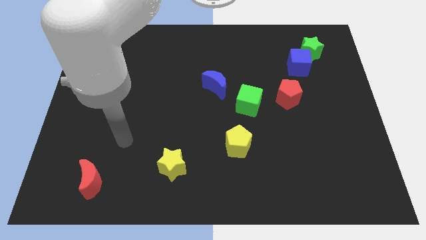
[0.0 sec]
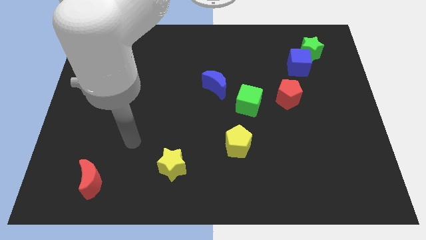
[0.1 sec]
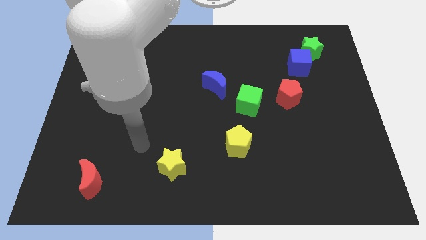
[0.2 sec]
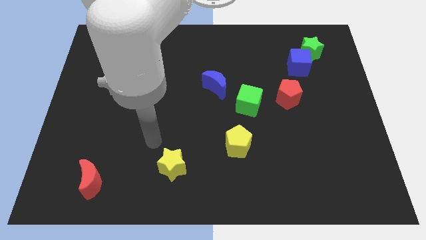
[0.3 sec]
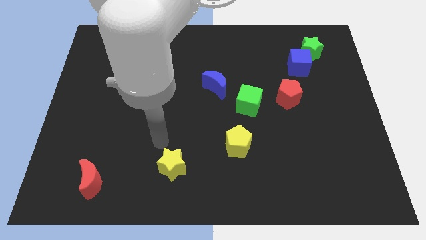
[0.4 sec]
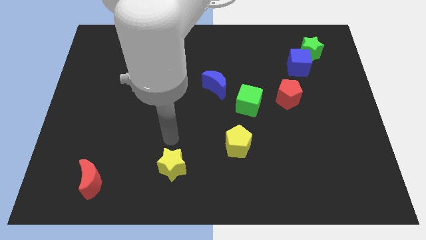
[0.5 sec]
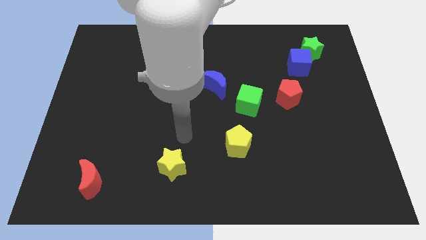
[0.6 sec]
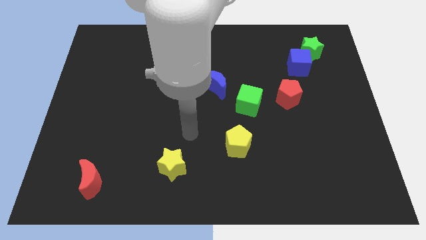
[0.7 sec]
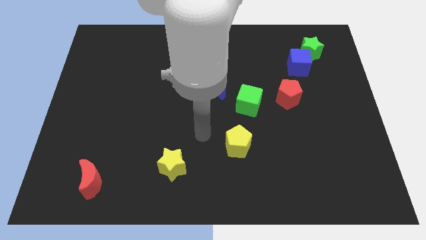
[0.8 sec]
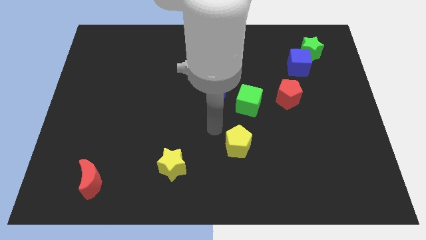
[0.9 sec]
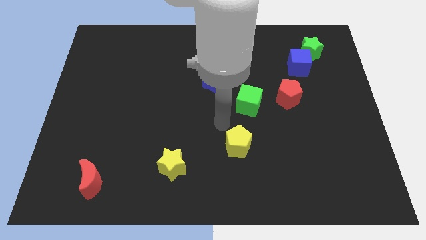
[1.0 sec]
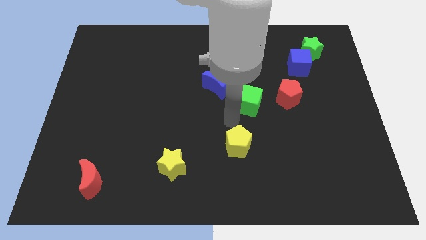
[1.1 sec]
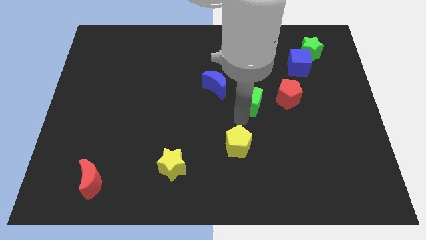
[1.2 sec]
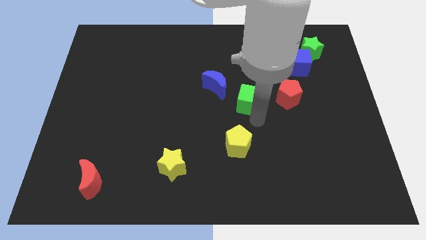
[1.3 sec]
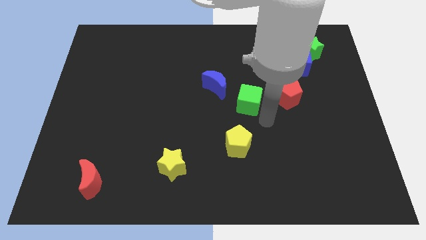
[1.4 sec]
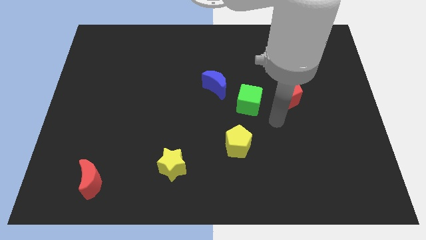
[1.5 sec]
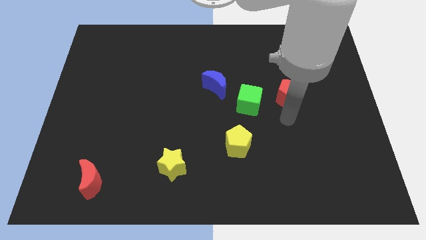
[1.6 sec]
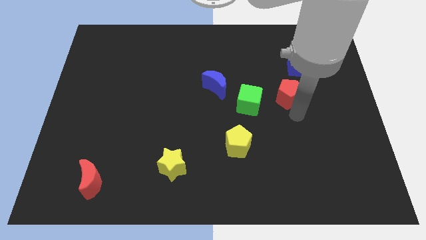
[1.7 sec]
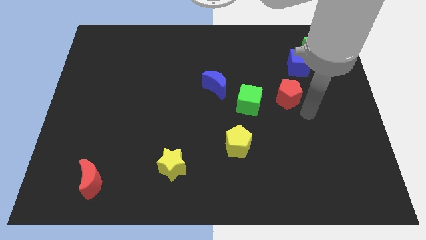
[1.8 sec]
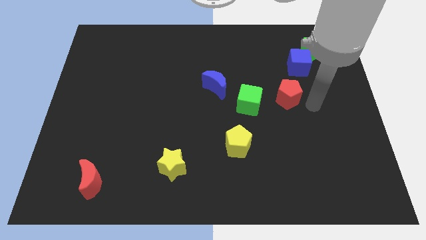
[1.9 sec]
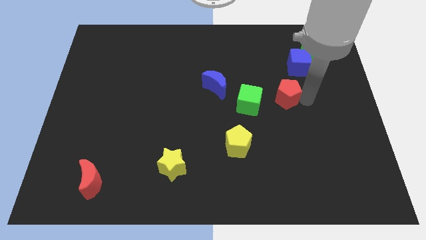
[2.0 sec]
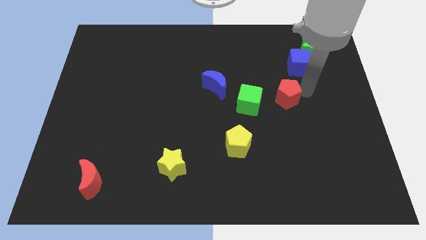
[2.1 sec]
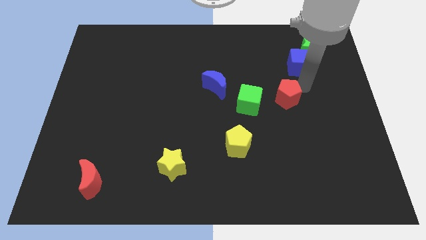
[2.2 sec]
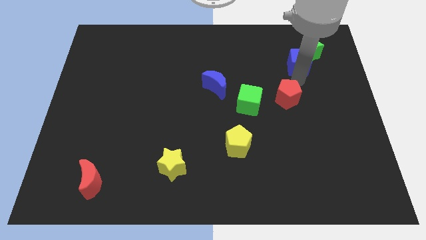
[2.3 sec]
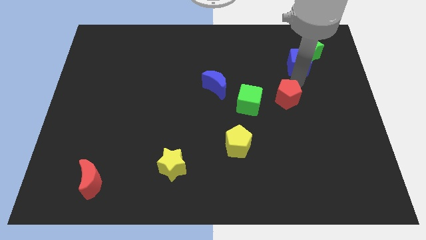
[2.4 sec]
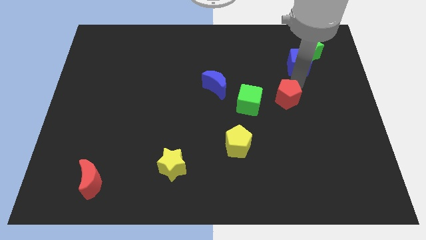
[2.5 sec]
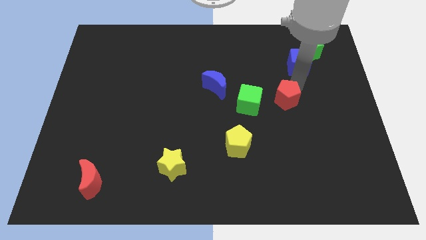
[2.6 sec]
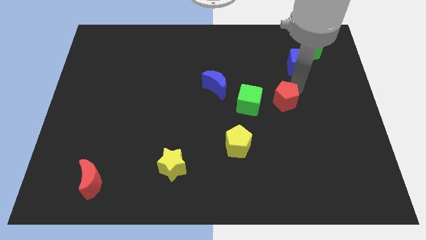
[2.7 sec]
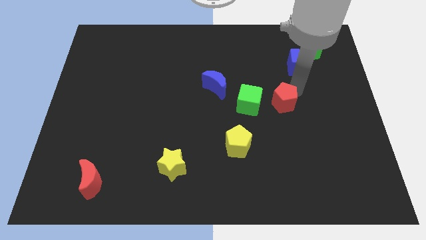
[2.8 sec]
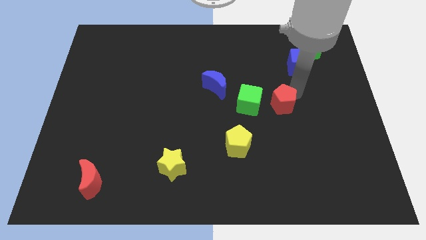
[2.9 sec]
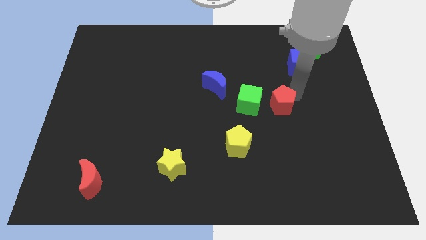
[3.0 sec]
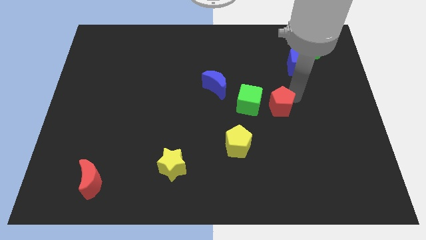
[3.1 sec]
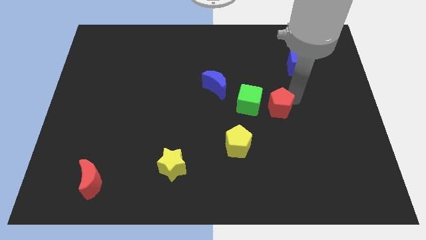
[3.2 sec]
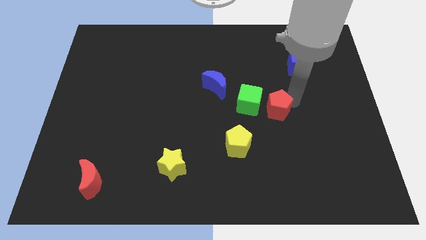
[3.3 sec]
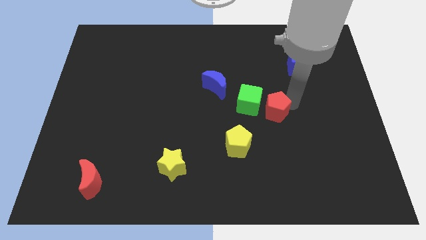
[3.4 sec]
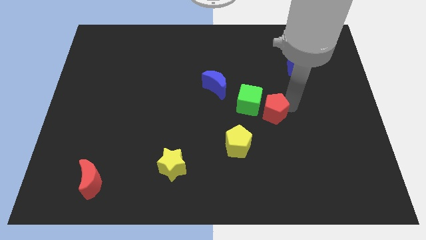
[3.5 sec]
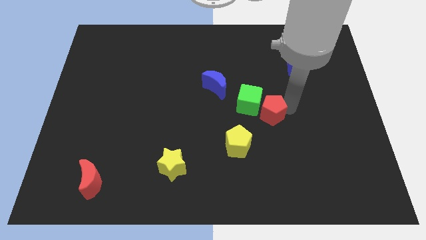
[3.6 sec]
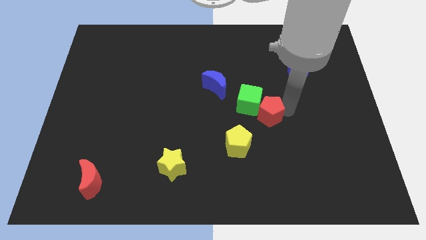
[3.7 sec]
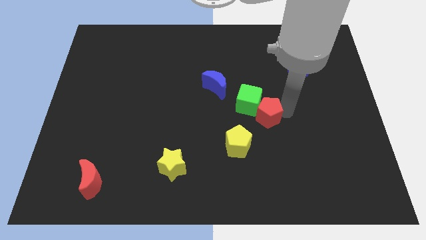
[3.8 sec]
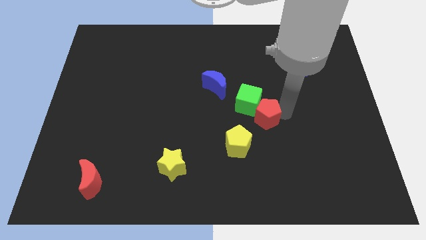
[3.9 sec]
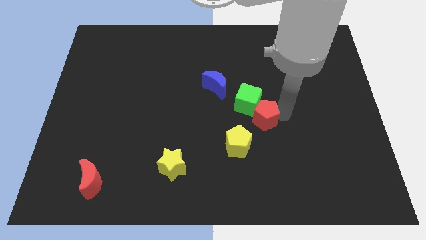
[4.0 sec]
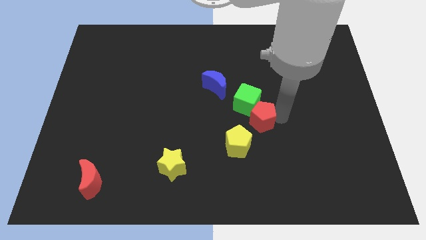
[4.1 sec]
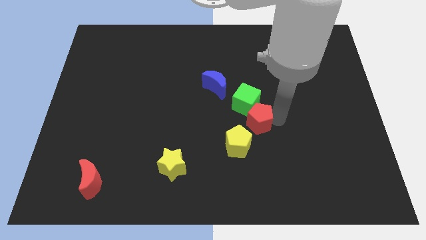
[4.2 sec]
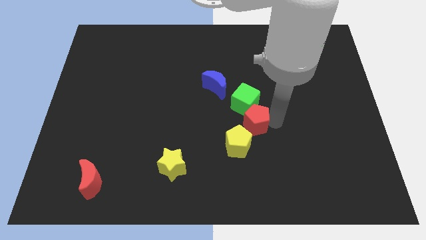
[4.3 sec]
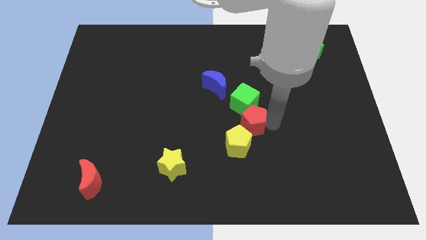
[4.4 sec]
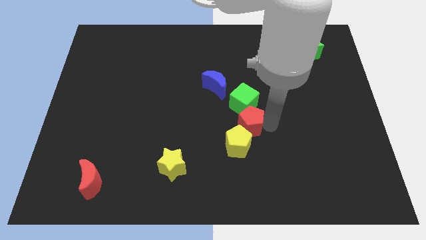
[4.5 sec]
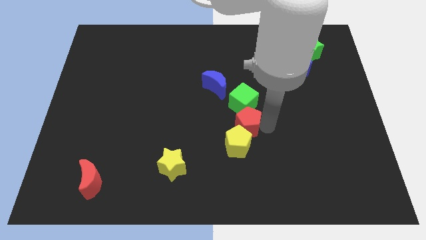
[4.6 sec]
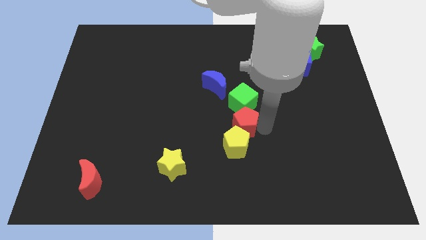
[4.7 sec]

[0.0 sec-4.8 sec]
slide the red pentagon diagonally down and to the left of the green cube

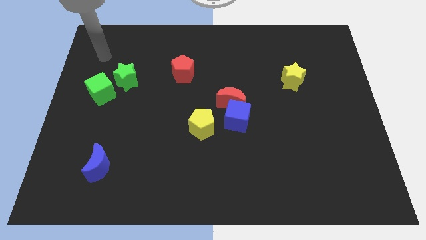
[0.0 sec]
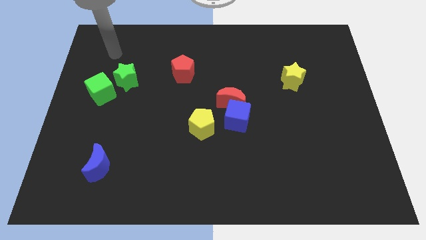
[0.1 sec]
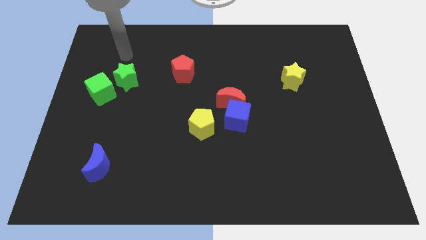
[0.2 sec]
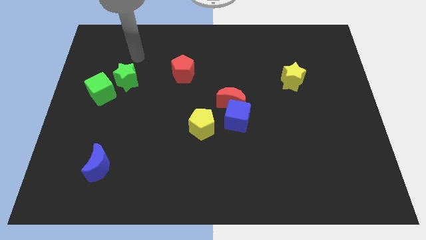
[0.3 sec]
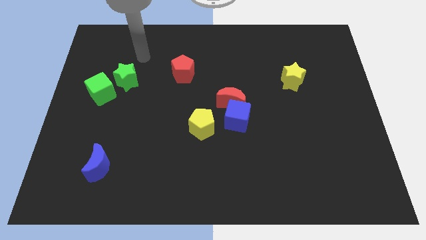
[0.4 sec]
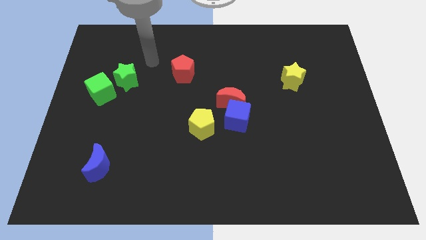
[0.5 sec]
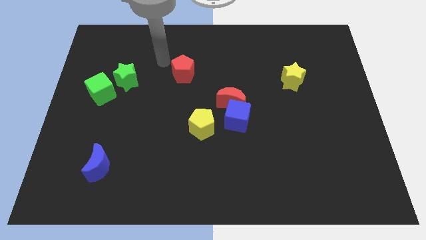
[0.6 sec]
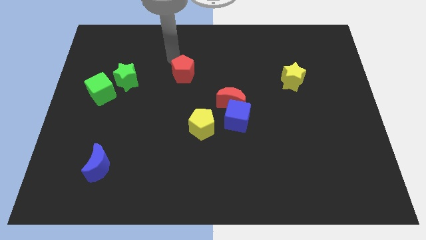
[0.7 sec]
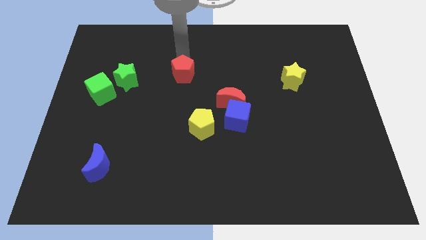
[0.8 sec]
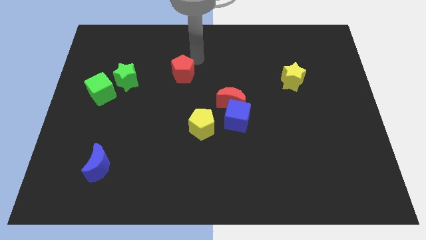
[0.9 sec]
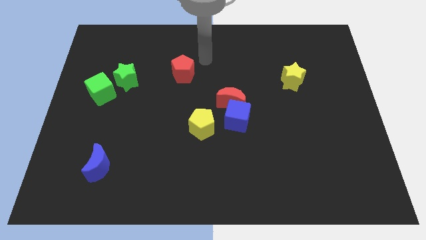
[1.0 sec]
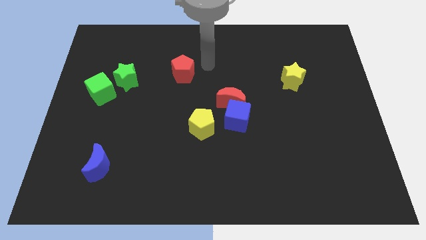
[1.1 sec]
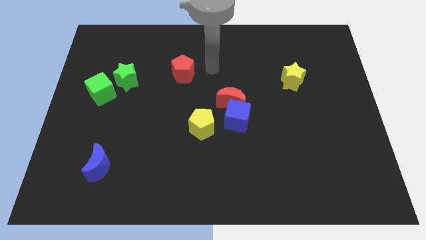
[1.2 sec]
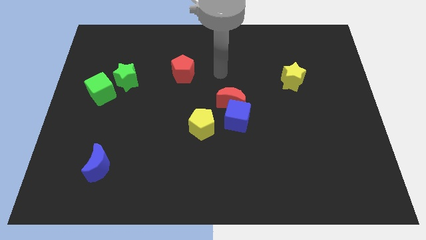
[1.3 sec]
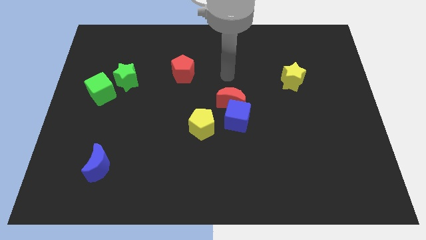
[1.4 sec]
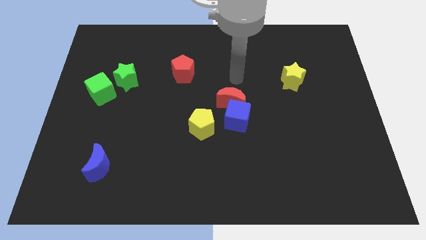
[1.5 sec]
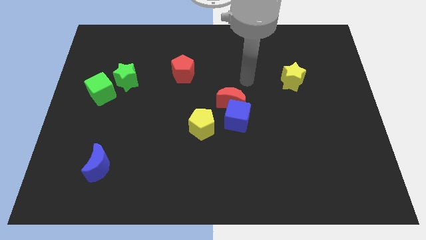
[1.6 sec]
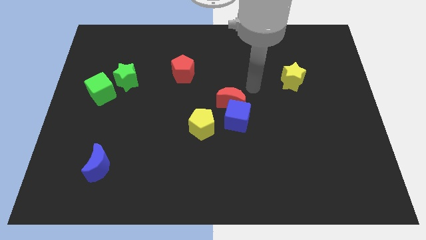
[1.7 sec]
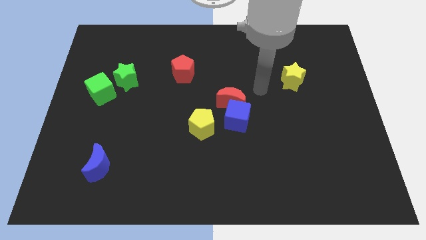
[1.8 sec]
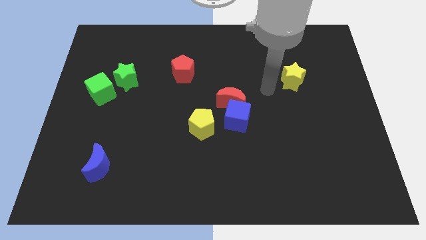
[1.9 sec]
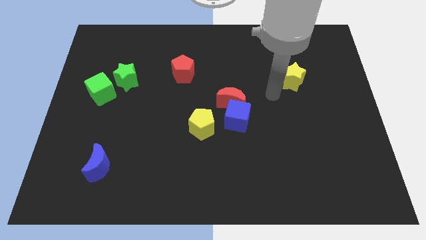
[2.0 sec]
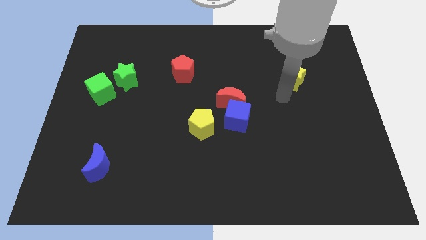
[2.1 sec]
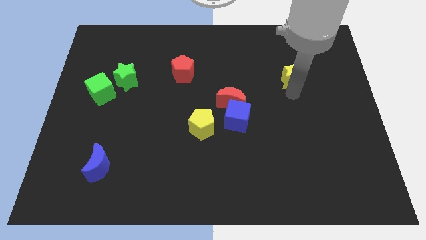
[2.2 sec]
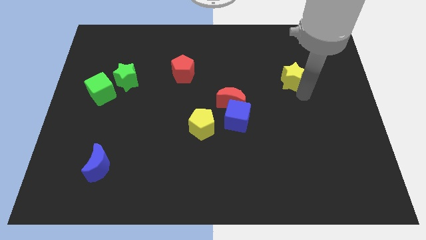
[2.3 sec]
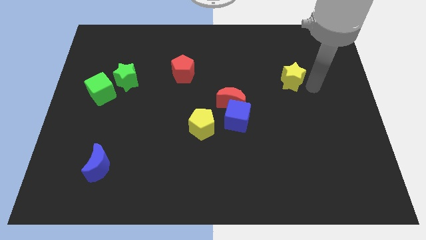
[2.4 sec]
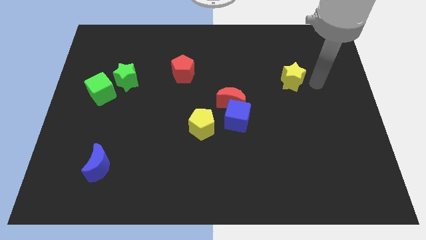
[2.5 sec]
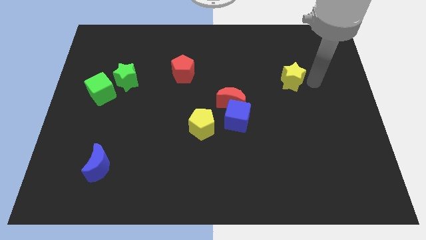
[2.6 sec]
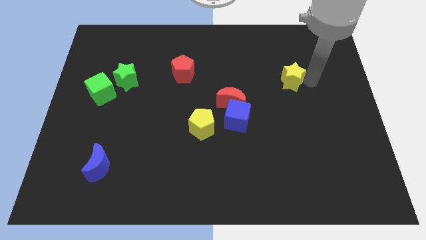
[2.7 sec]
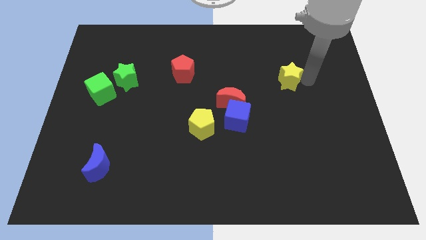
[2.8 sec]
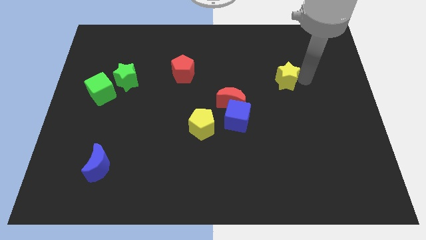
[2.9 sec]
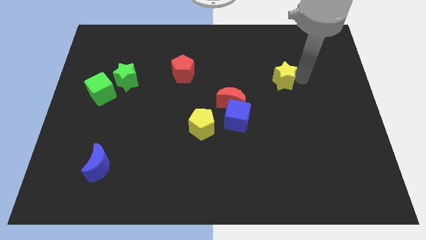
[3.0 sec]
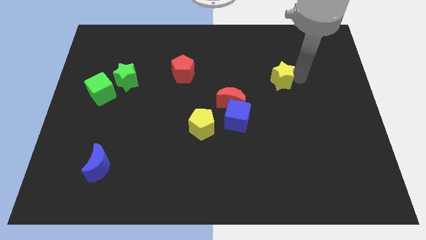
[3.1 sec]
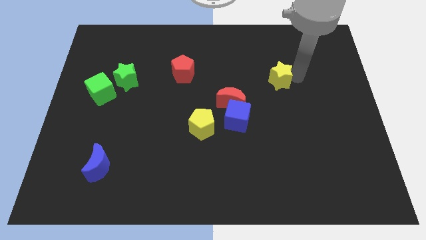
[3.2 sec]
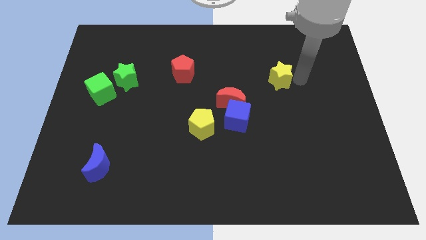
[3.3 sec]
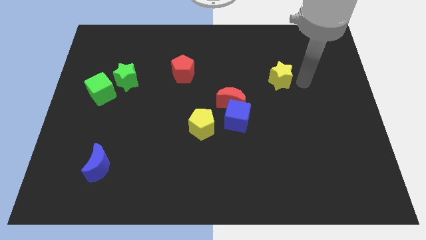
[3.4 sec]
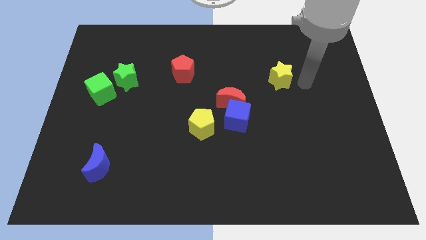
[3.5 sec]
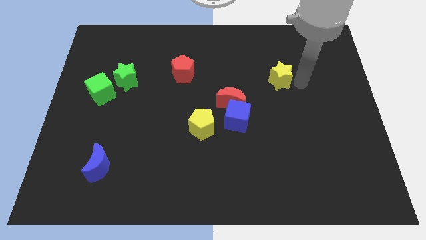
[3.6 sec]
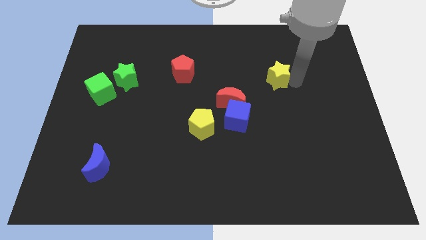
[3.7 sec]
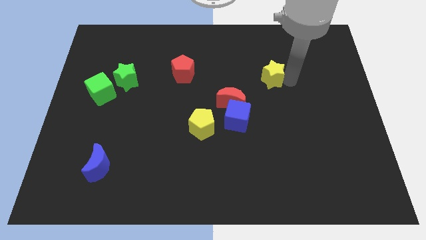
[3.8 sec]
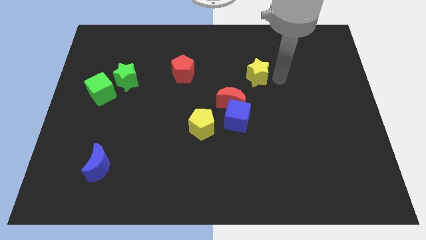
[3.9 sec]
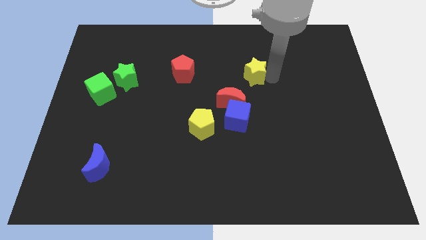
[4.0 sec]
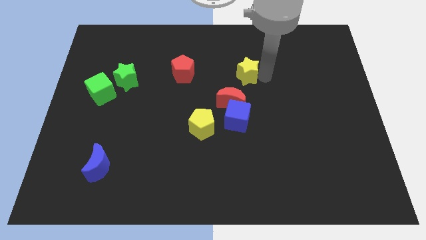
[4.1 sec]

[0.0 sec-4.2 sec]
move the yellow star to the top of the red moon
